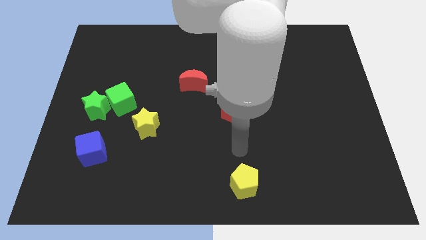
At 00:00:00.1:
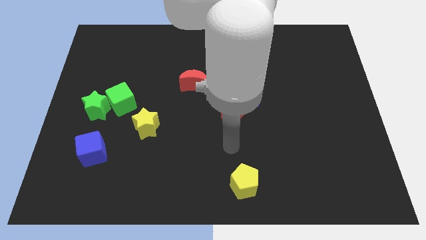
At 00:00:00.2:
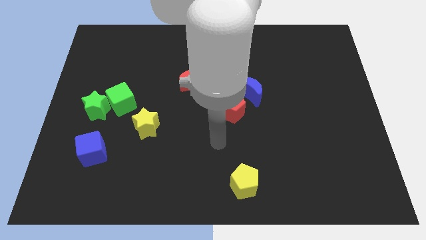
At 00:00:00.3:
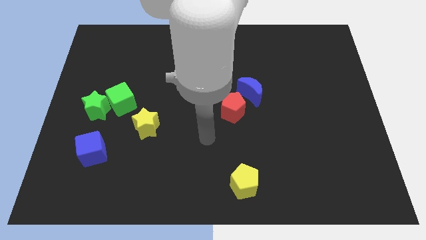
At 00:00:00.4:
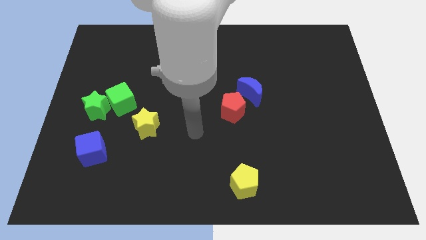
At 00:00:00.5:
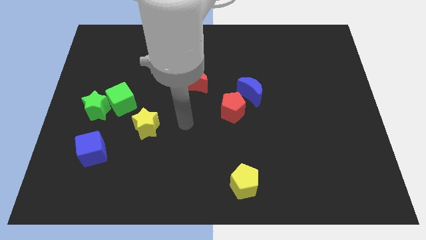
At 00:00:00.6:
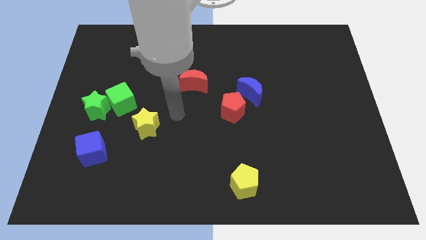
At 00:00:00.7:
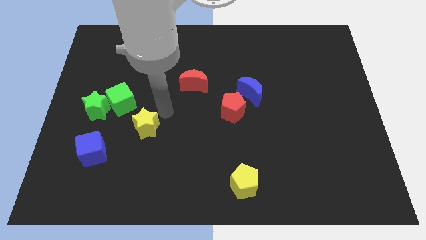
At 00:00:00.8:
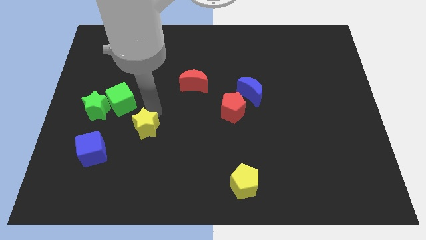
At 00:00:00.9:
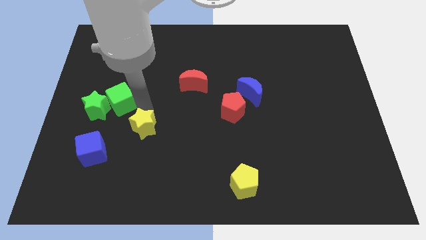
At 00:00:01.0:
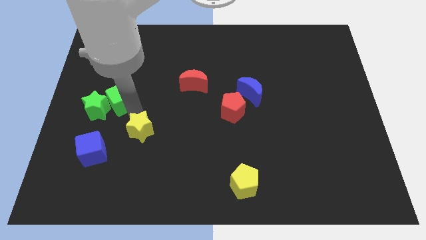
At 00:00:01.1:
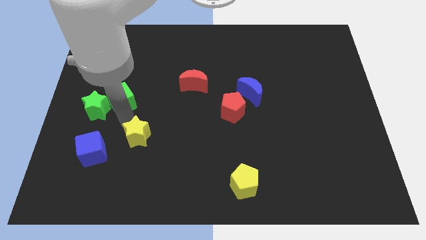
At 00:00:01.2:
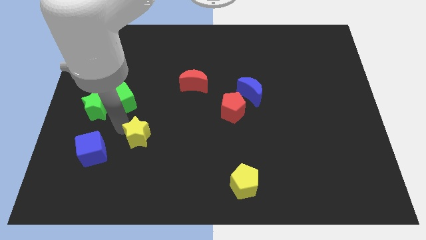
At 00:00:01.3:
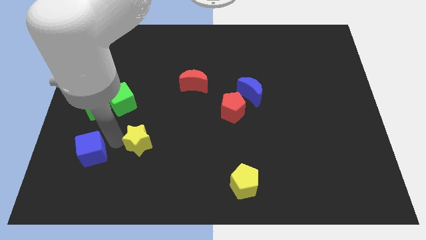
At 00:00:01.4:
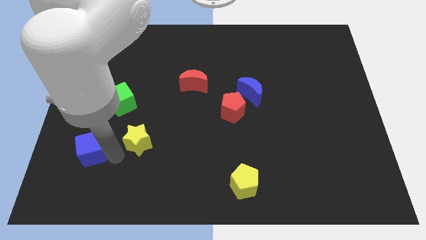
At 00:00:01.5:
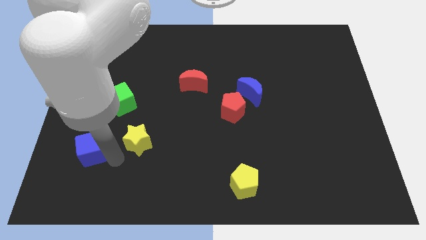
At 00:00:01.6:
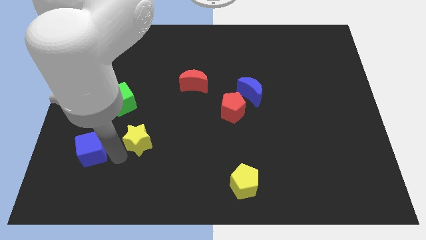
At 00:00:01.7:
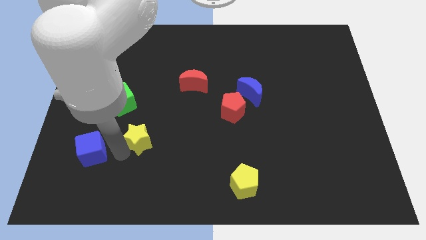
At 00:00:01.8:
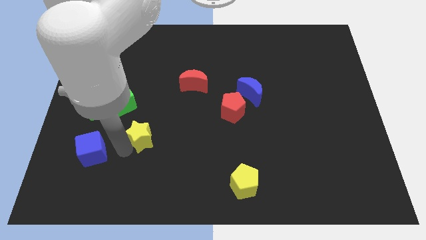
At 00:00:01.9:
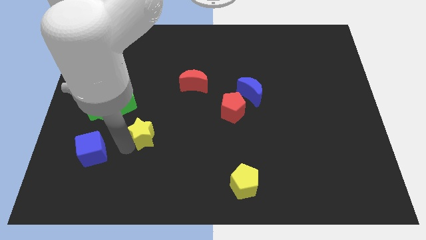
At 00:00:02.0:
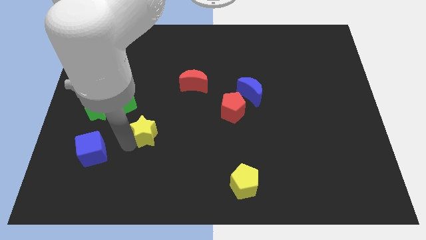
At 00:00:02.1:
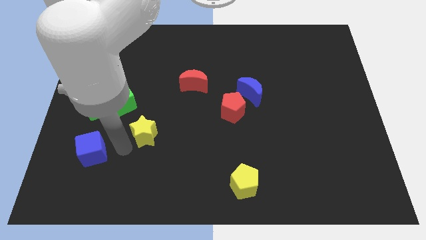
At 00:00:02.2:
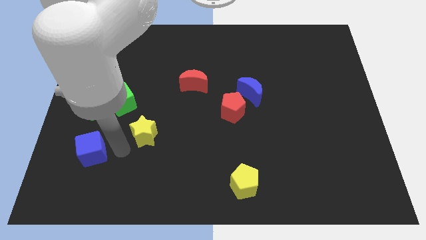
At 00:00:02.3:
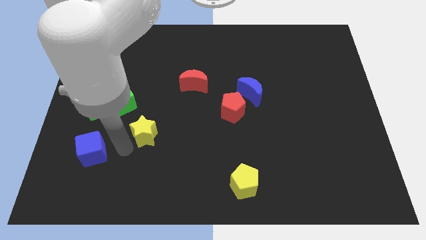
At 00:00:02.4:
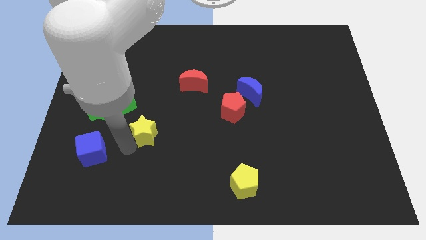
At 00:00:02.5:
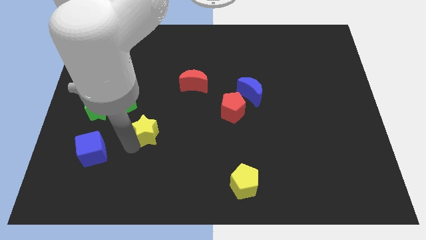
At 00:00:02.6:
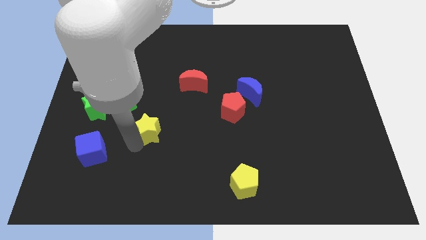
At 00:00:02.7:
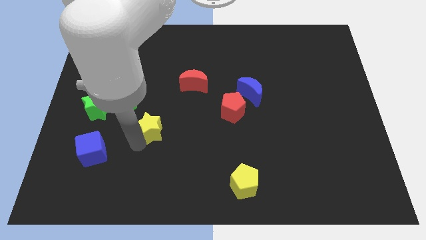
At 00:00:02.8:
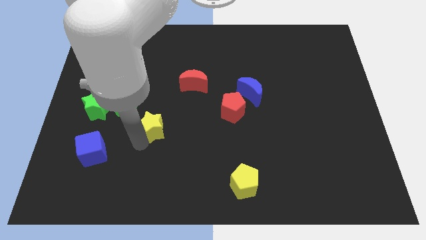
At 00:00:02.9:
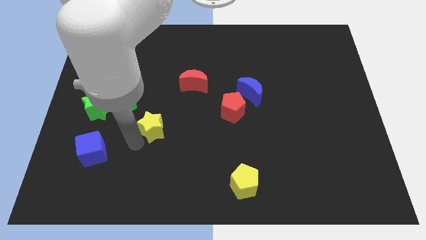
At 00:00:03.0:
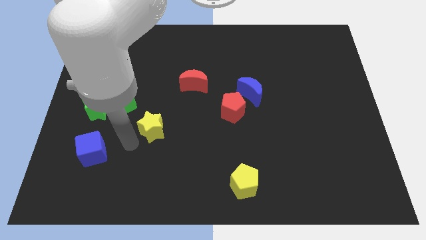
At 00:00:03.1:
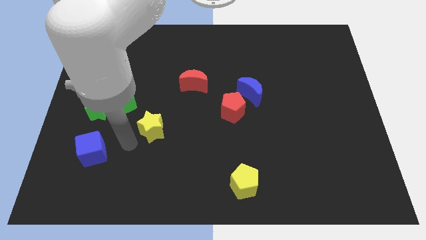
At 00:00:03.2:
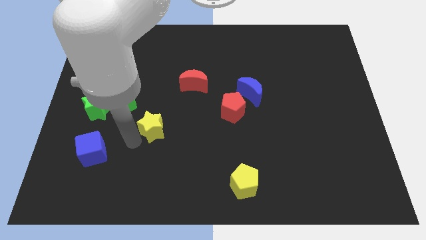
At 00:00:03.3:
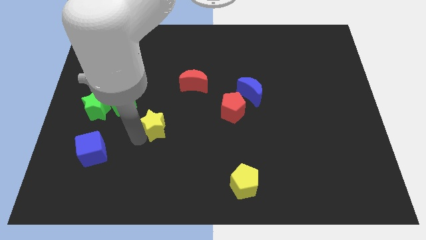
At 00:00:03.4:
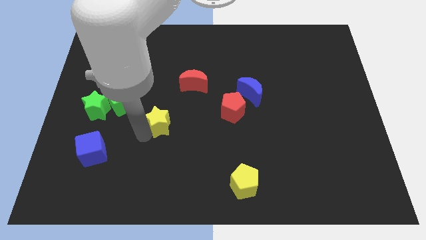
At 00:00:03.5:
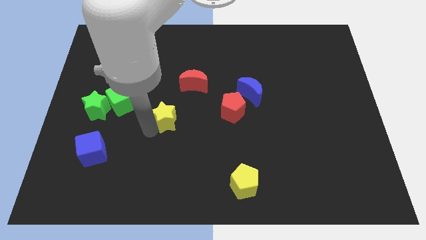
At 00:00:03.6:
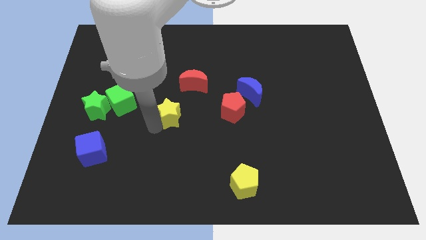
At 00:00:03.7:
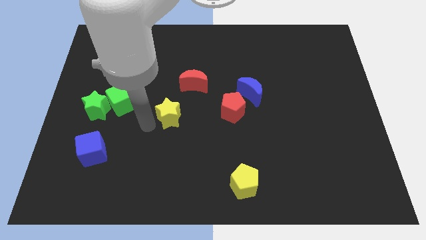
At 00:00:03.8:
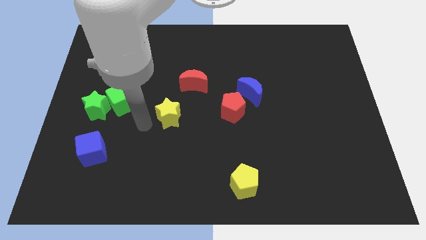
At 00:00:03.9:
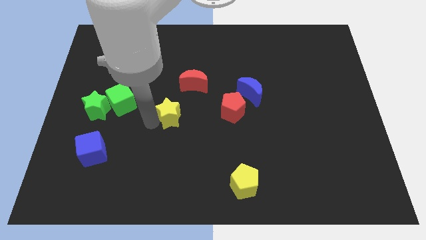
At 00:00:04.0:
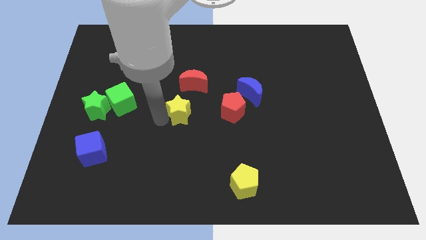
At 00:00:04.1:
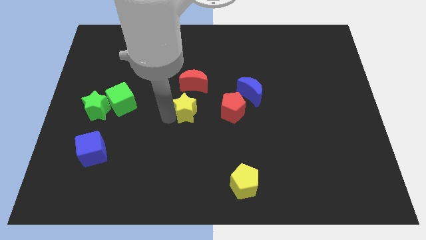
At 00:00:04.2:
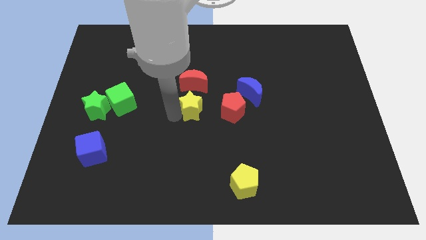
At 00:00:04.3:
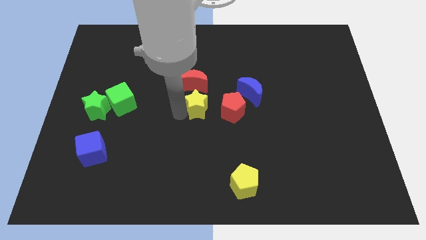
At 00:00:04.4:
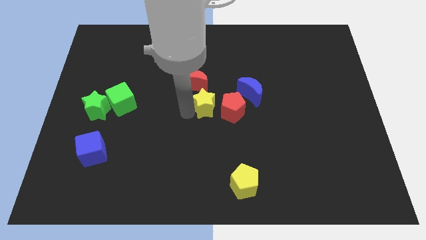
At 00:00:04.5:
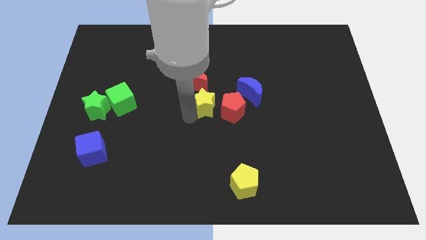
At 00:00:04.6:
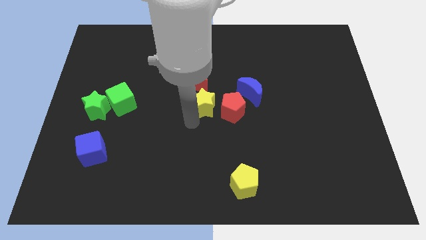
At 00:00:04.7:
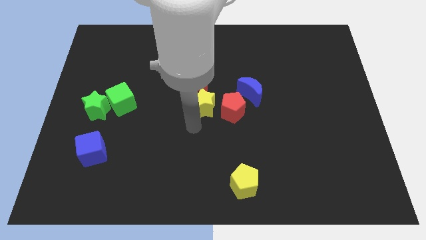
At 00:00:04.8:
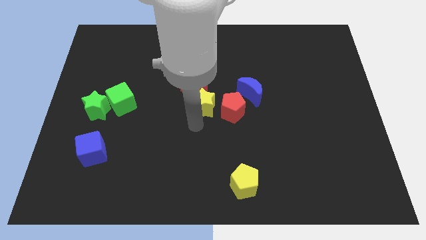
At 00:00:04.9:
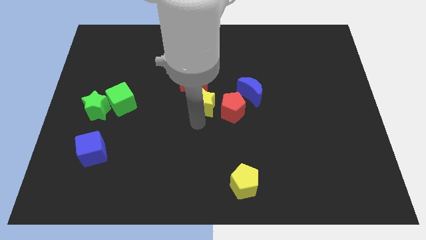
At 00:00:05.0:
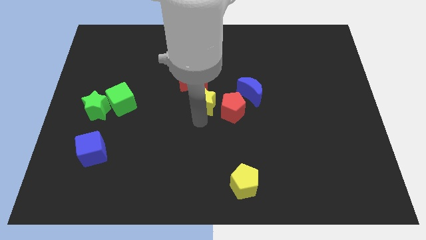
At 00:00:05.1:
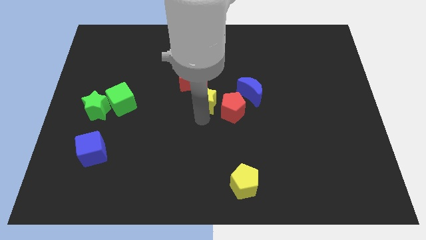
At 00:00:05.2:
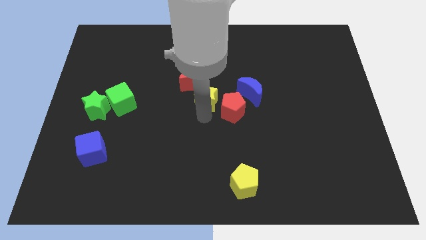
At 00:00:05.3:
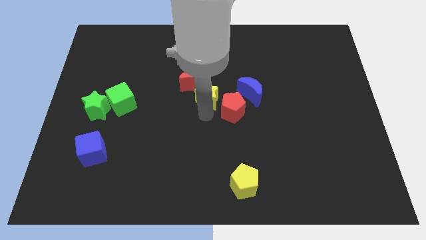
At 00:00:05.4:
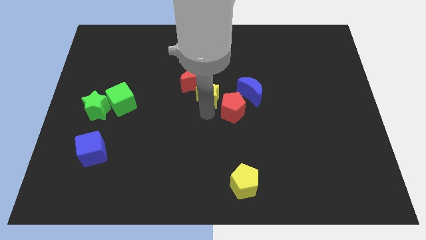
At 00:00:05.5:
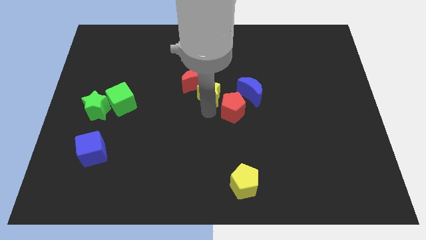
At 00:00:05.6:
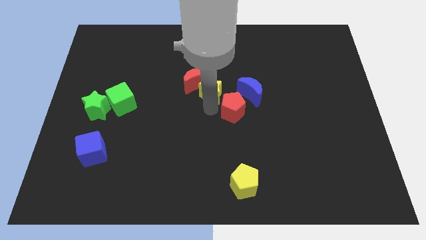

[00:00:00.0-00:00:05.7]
slide the yellow star to the top side of the red pentagon
